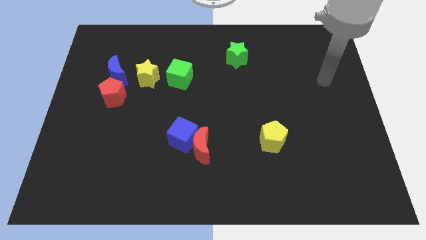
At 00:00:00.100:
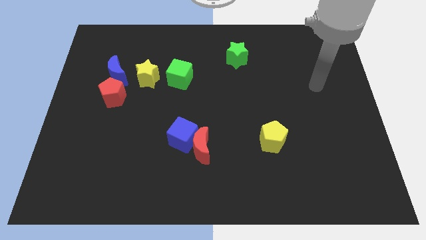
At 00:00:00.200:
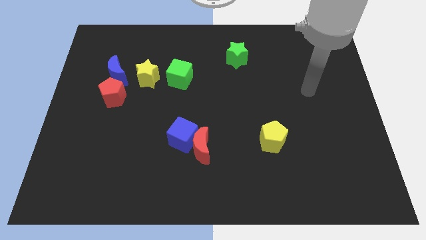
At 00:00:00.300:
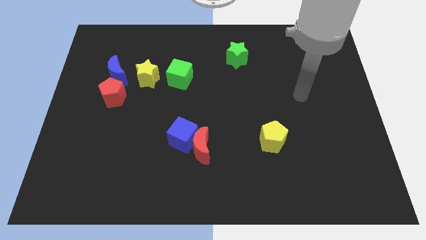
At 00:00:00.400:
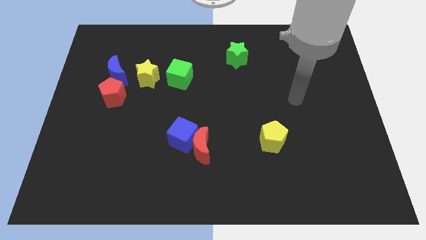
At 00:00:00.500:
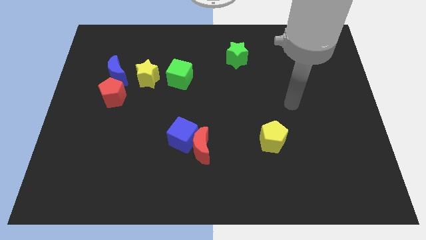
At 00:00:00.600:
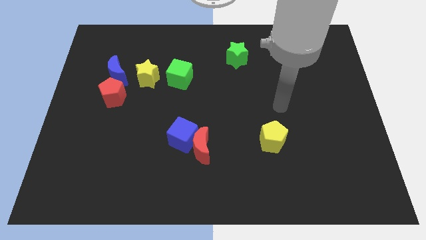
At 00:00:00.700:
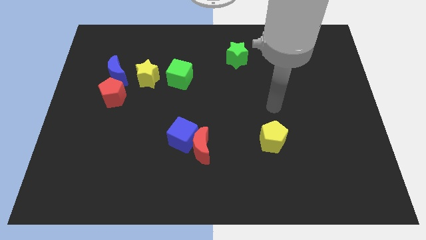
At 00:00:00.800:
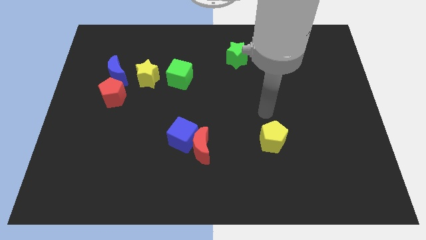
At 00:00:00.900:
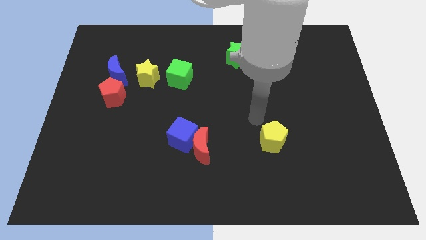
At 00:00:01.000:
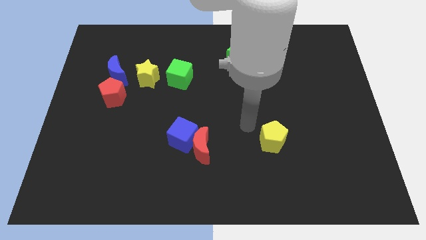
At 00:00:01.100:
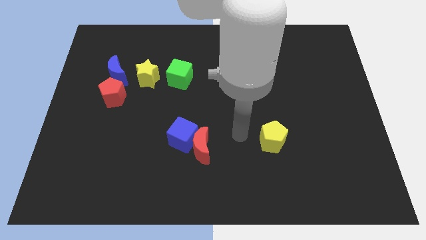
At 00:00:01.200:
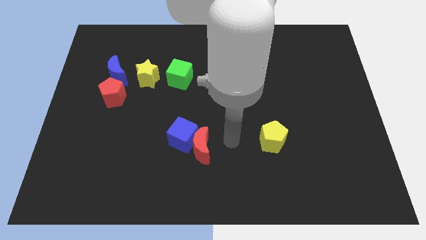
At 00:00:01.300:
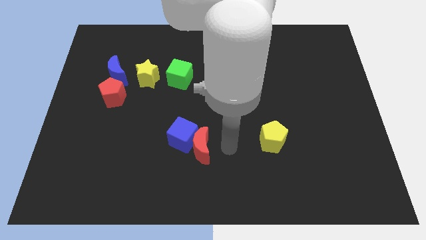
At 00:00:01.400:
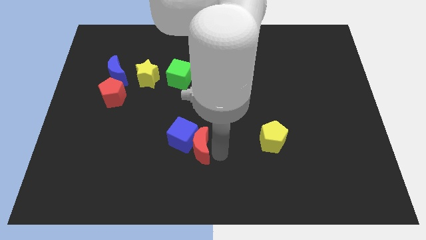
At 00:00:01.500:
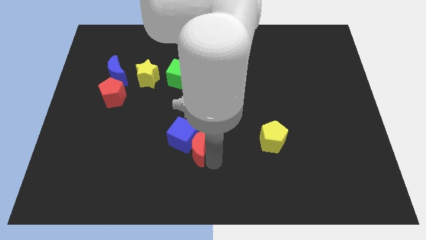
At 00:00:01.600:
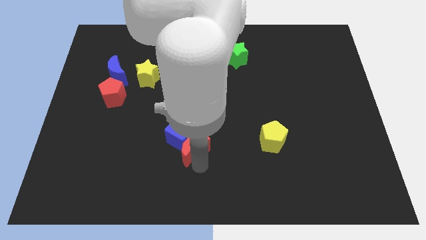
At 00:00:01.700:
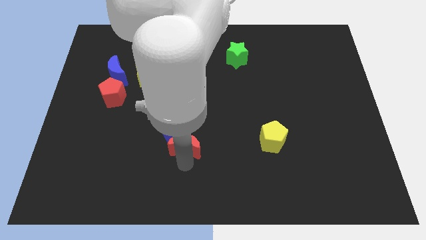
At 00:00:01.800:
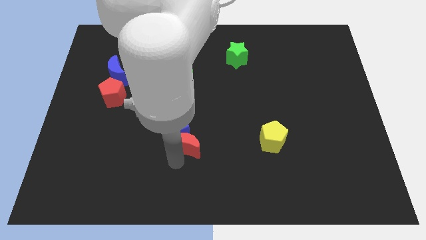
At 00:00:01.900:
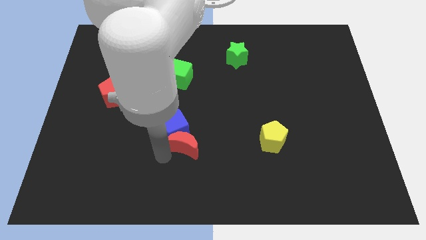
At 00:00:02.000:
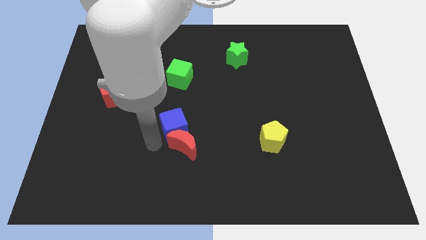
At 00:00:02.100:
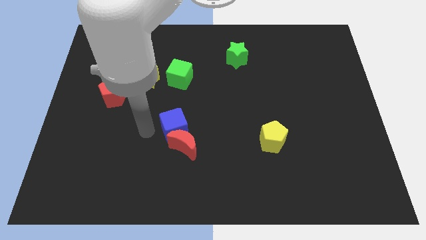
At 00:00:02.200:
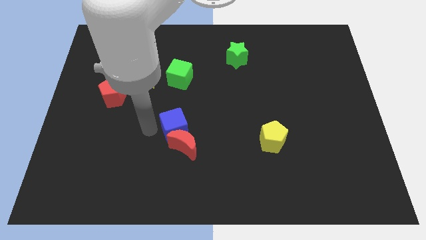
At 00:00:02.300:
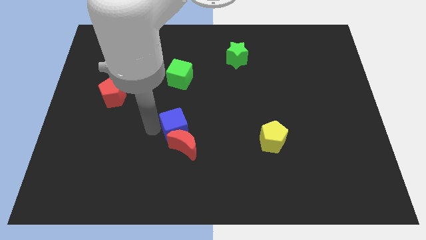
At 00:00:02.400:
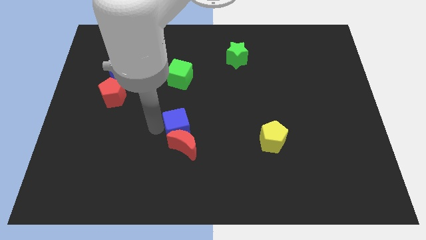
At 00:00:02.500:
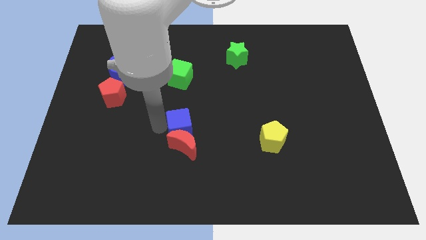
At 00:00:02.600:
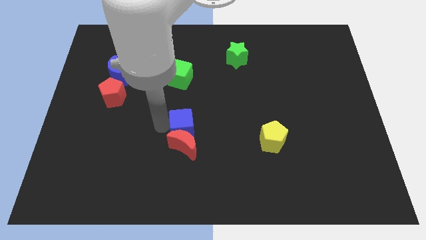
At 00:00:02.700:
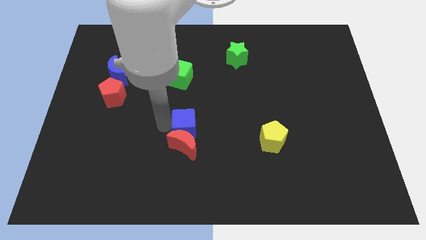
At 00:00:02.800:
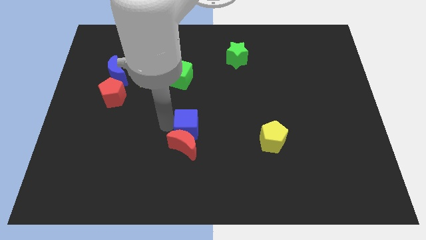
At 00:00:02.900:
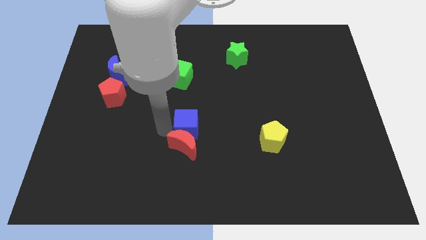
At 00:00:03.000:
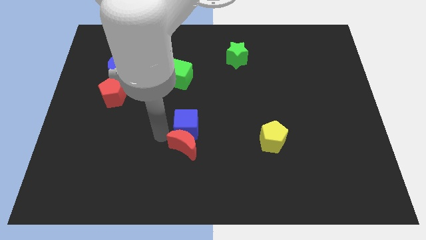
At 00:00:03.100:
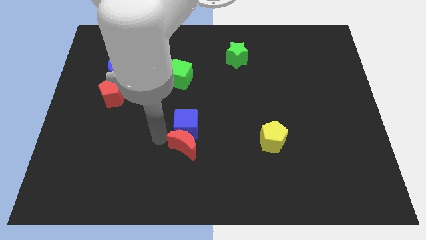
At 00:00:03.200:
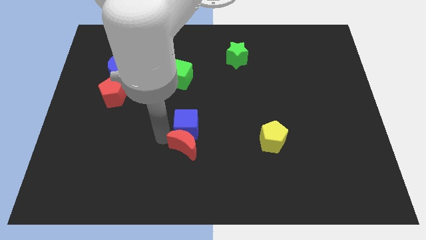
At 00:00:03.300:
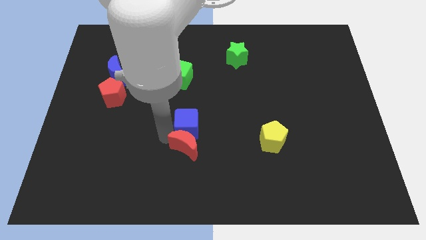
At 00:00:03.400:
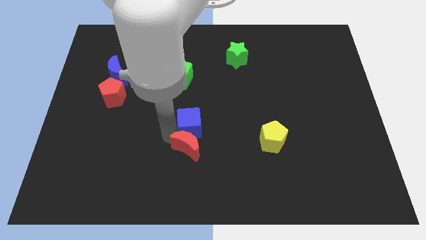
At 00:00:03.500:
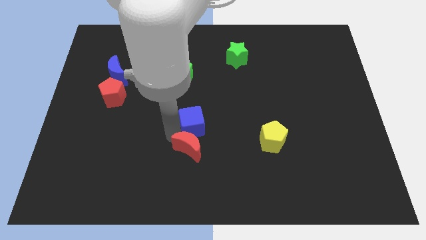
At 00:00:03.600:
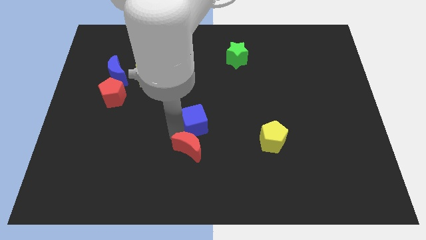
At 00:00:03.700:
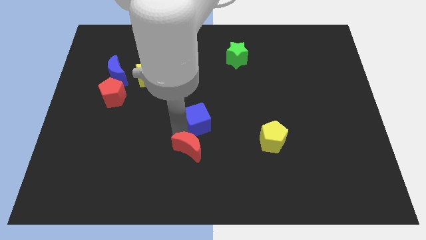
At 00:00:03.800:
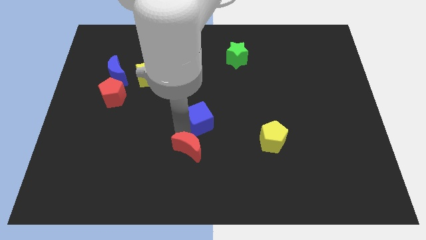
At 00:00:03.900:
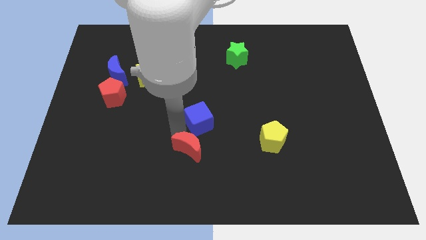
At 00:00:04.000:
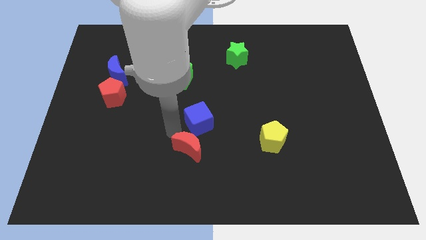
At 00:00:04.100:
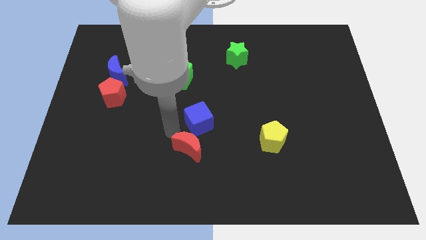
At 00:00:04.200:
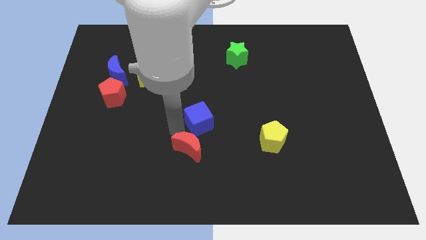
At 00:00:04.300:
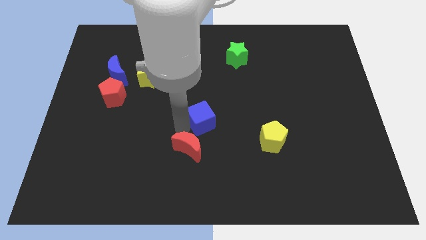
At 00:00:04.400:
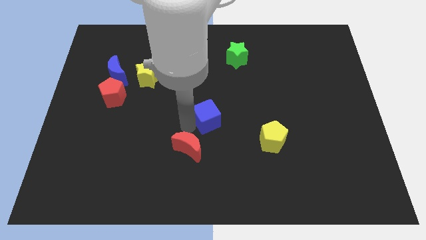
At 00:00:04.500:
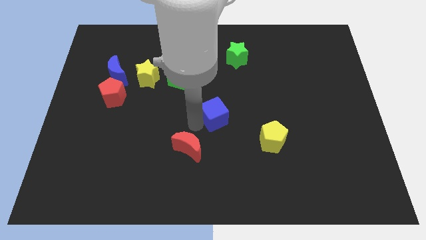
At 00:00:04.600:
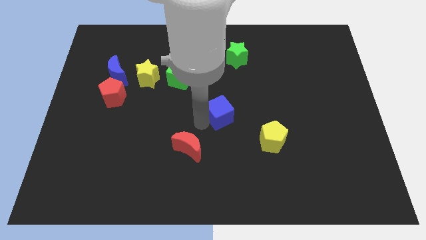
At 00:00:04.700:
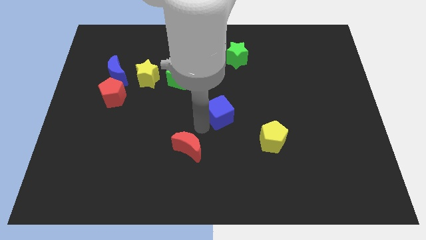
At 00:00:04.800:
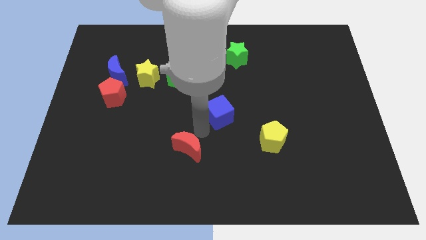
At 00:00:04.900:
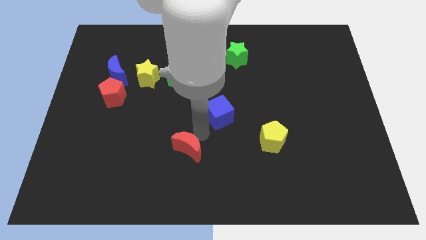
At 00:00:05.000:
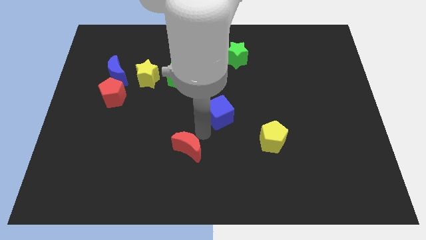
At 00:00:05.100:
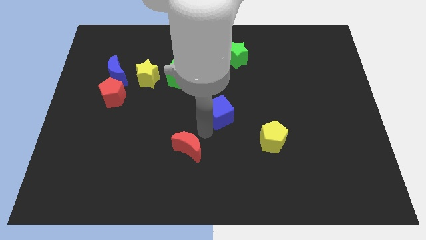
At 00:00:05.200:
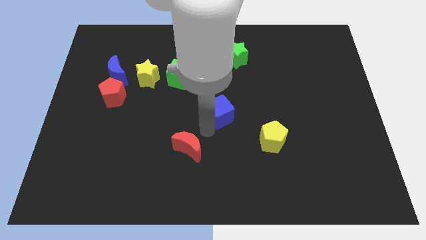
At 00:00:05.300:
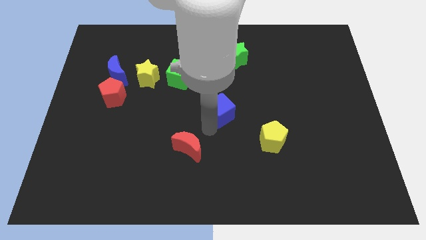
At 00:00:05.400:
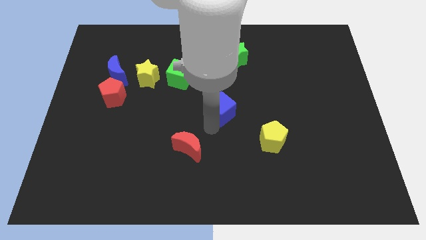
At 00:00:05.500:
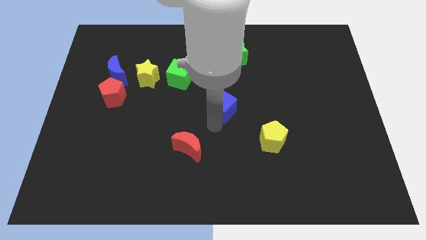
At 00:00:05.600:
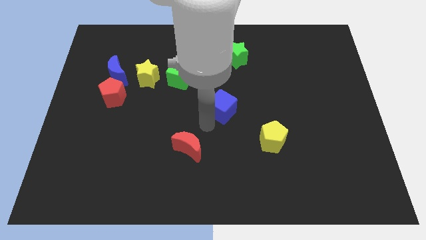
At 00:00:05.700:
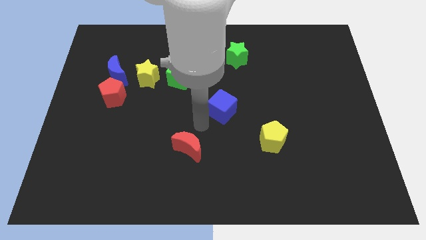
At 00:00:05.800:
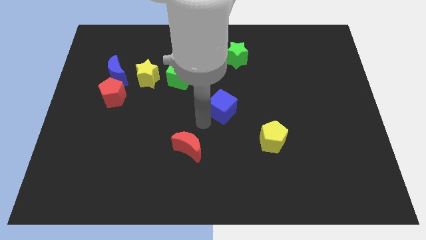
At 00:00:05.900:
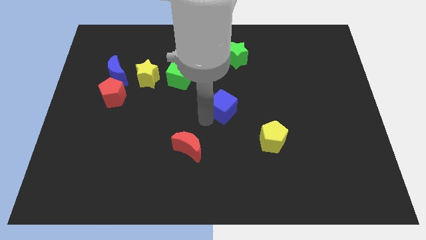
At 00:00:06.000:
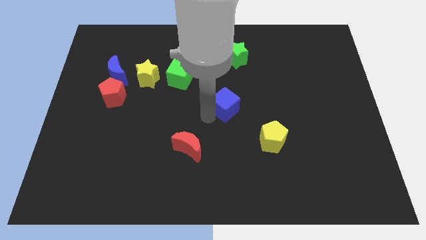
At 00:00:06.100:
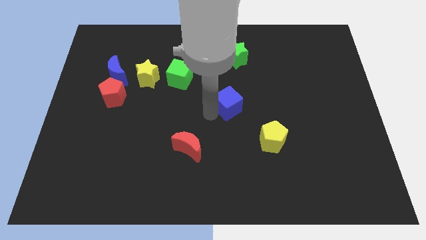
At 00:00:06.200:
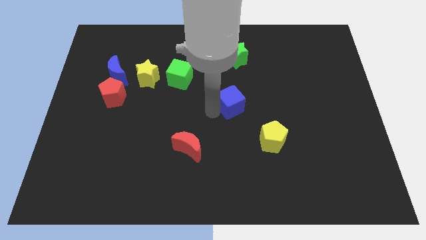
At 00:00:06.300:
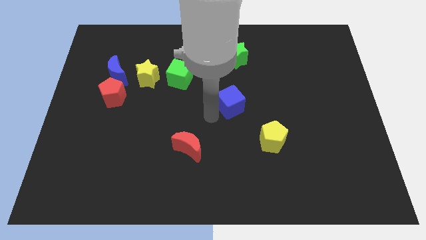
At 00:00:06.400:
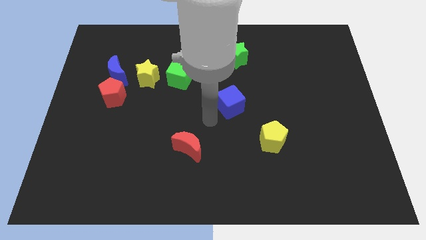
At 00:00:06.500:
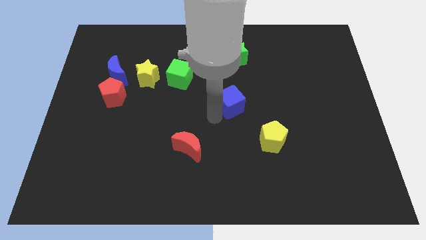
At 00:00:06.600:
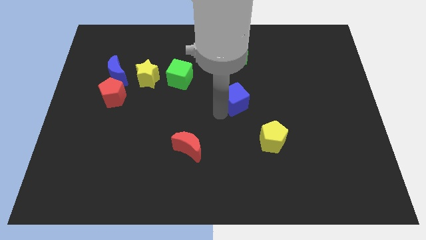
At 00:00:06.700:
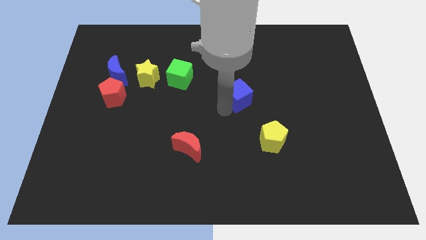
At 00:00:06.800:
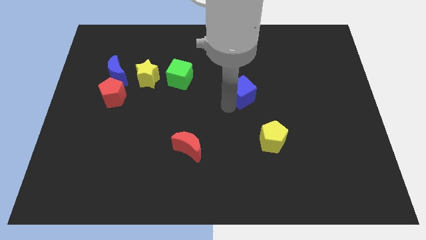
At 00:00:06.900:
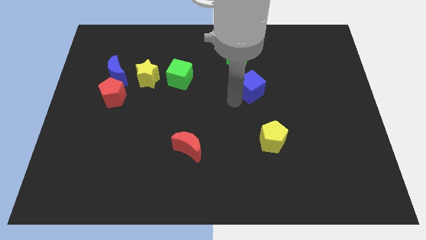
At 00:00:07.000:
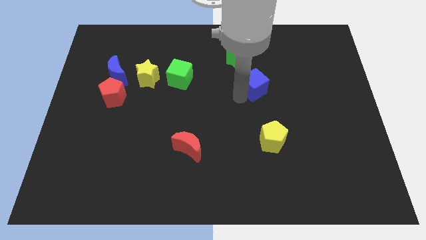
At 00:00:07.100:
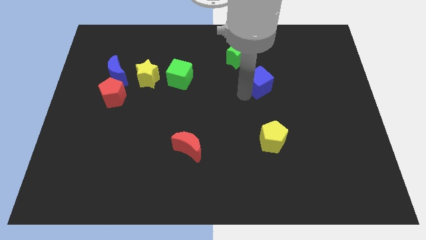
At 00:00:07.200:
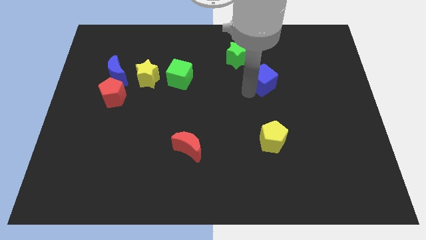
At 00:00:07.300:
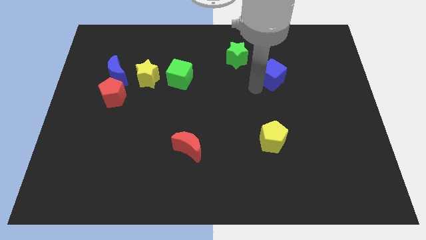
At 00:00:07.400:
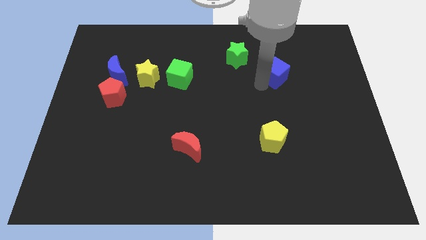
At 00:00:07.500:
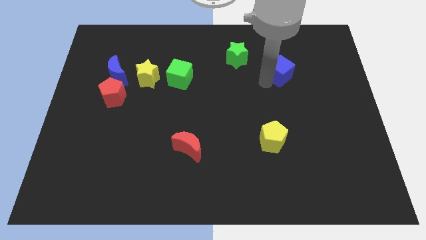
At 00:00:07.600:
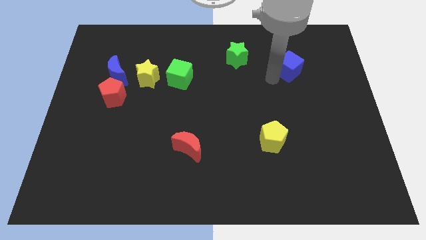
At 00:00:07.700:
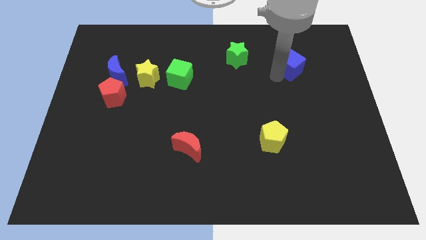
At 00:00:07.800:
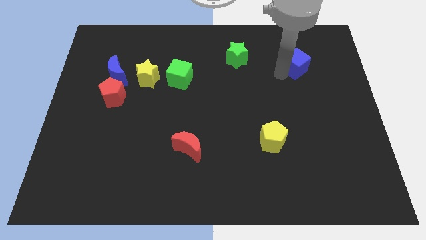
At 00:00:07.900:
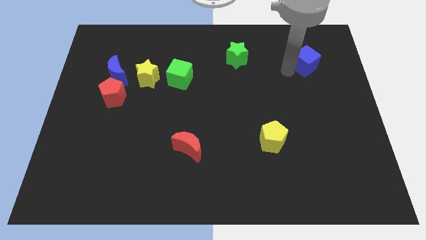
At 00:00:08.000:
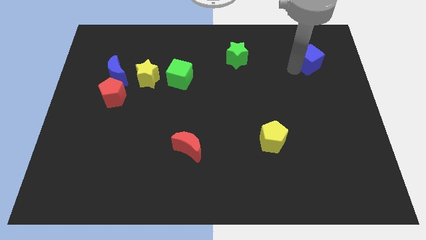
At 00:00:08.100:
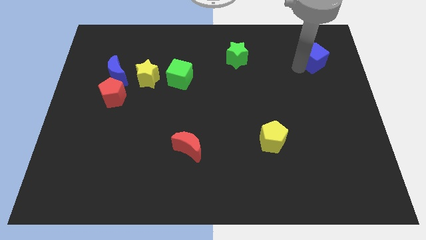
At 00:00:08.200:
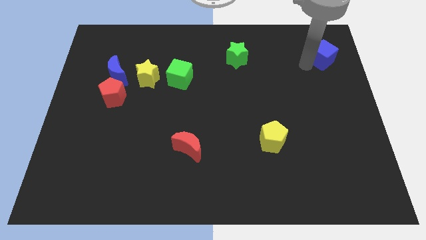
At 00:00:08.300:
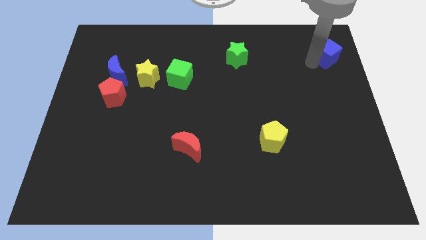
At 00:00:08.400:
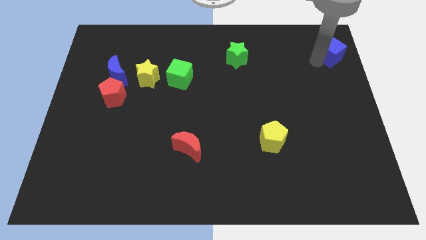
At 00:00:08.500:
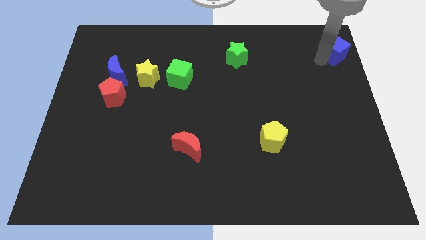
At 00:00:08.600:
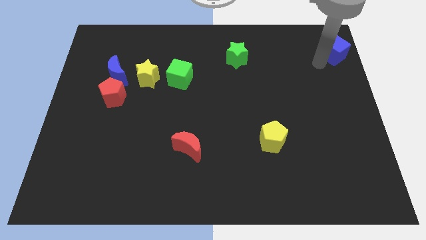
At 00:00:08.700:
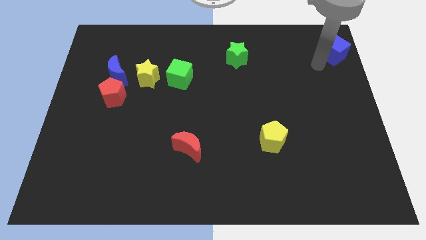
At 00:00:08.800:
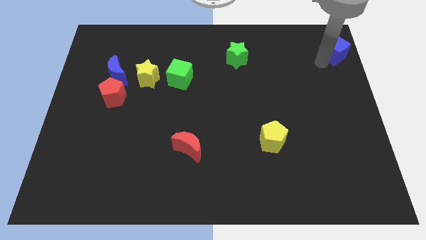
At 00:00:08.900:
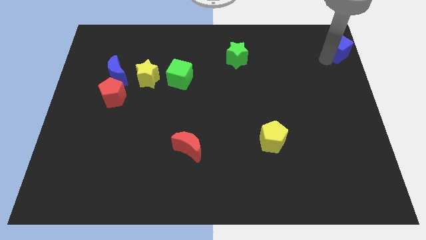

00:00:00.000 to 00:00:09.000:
slide the blue cube to the upper right corner
